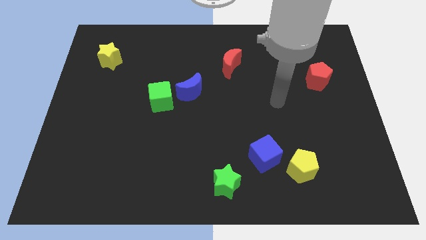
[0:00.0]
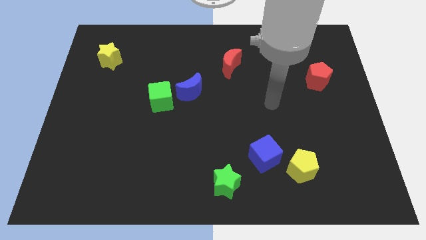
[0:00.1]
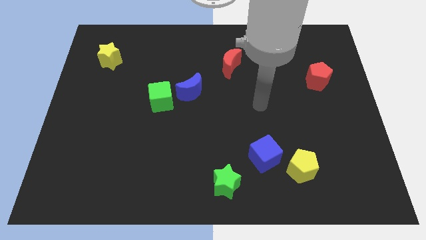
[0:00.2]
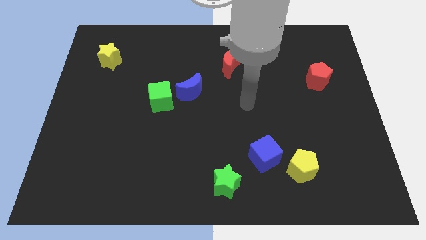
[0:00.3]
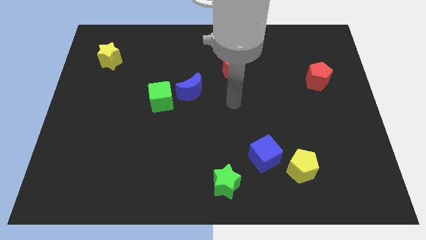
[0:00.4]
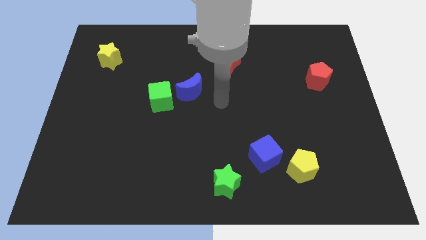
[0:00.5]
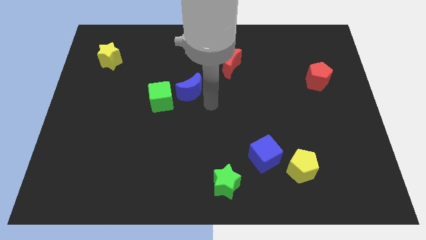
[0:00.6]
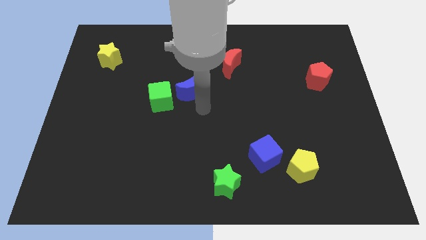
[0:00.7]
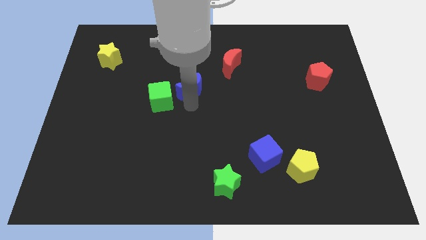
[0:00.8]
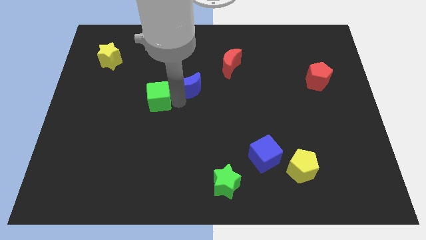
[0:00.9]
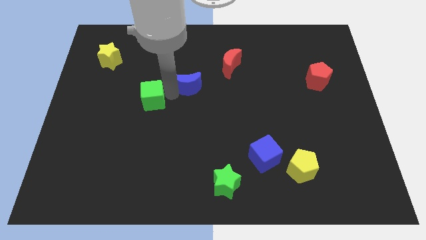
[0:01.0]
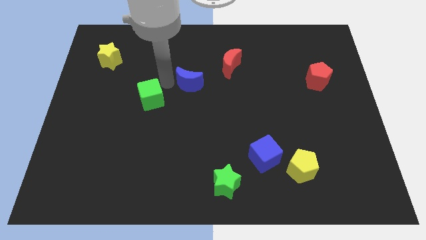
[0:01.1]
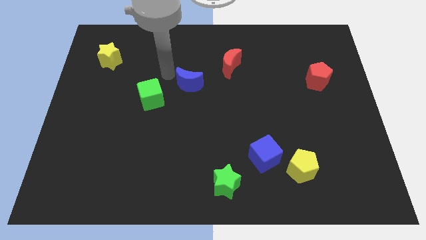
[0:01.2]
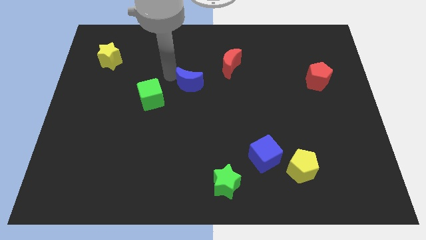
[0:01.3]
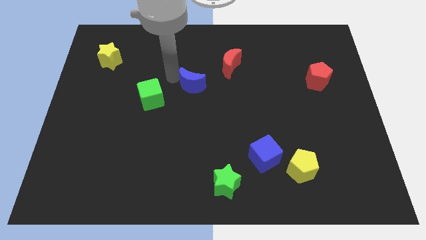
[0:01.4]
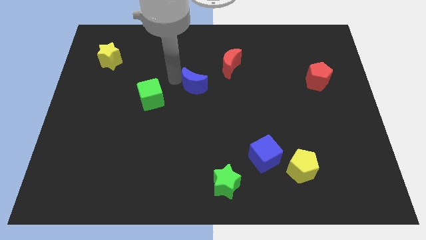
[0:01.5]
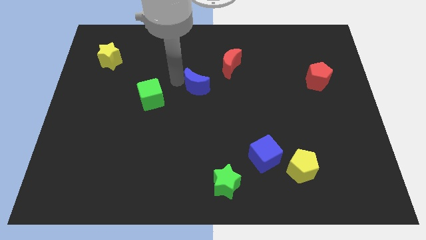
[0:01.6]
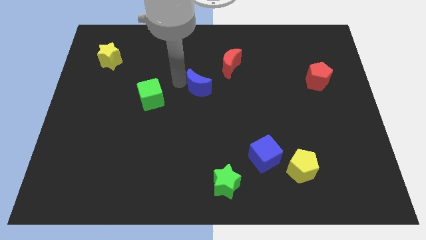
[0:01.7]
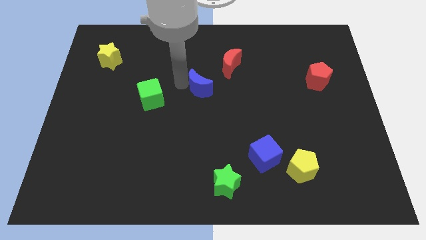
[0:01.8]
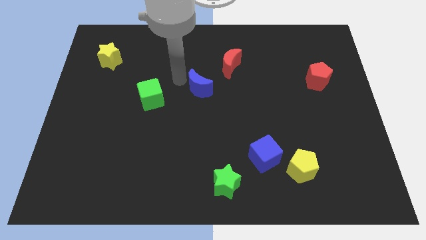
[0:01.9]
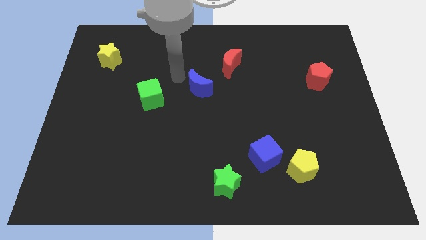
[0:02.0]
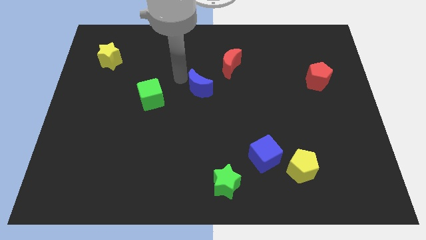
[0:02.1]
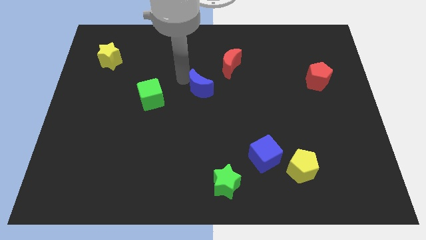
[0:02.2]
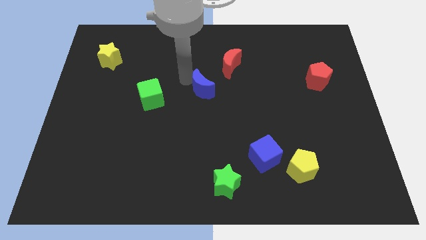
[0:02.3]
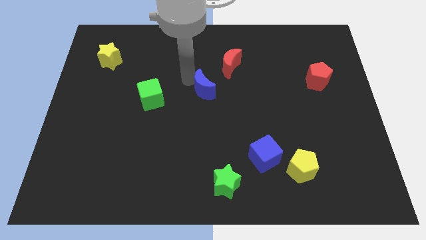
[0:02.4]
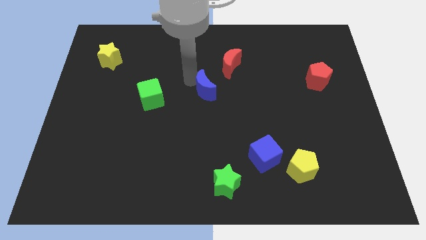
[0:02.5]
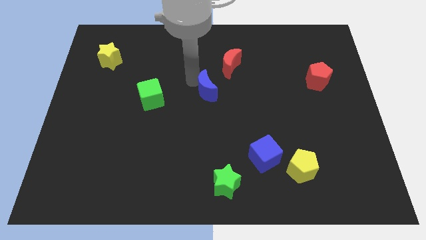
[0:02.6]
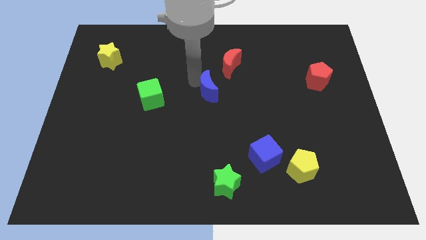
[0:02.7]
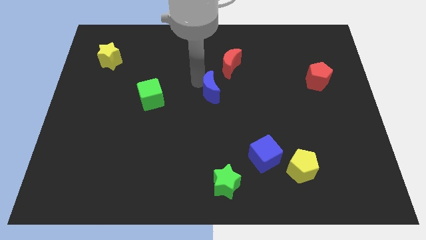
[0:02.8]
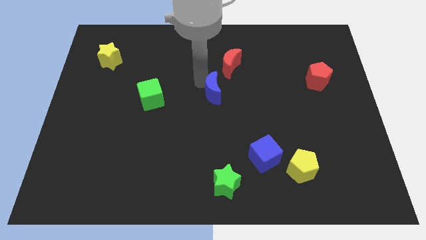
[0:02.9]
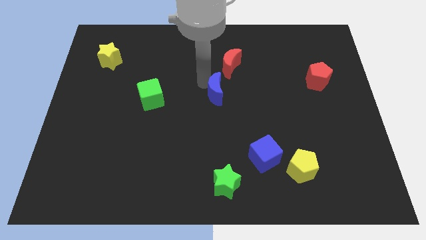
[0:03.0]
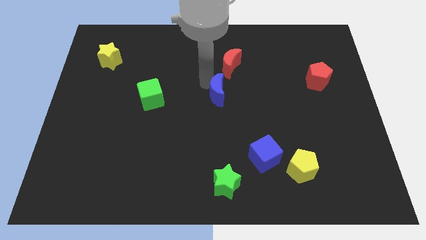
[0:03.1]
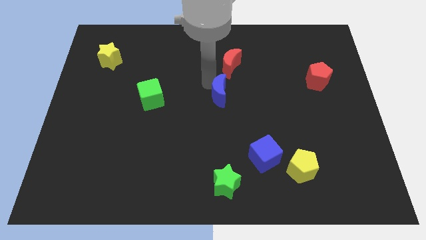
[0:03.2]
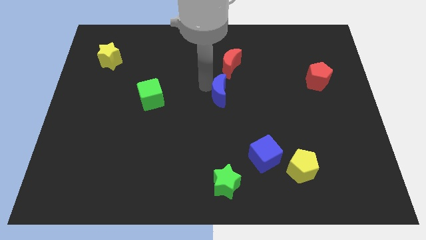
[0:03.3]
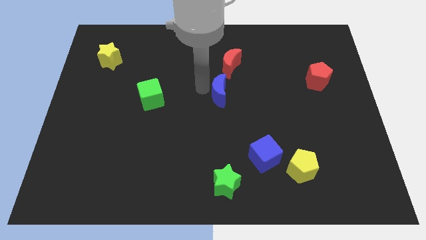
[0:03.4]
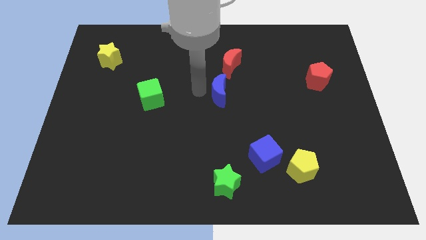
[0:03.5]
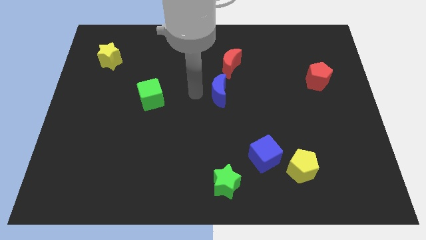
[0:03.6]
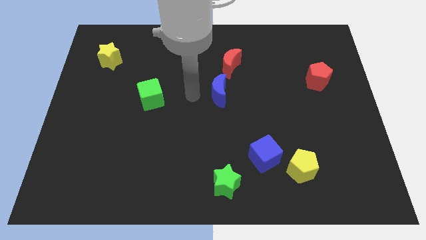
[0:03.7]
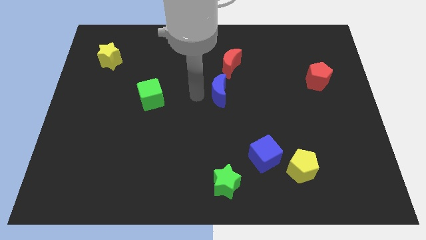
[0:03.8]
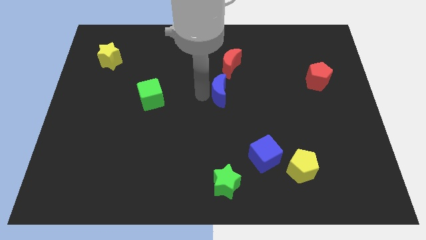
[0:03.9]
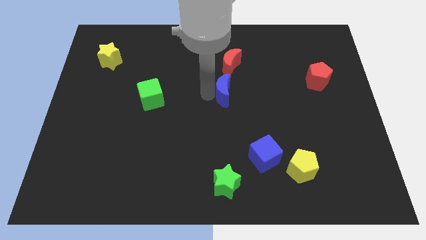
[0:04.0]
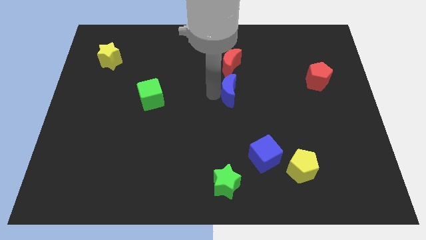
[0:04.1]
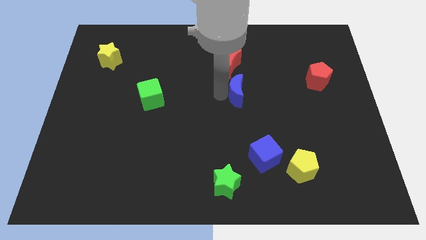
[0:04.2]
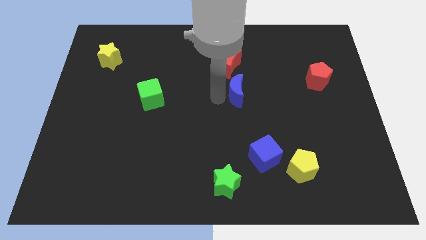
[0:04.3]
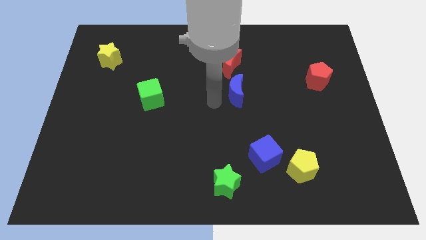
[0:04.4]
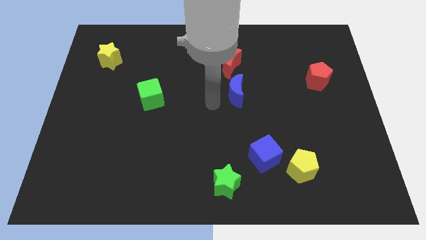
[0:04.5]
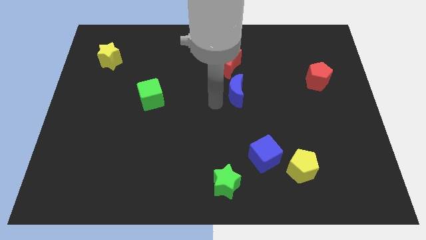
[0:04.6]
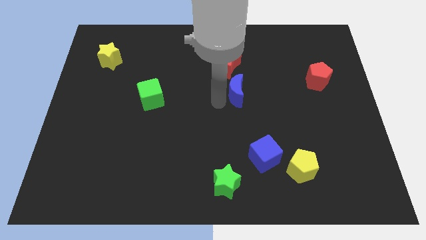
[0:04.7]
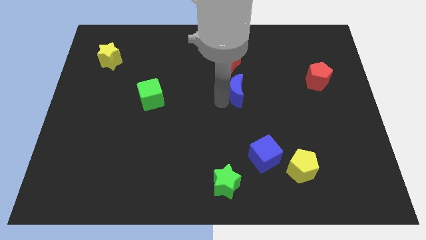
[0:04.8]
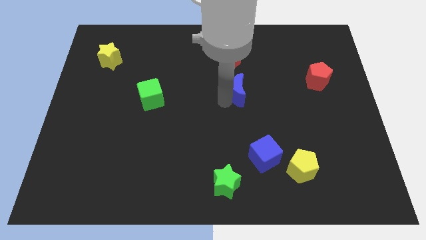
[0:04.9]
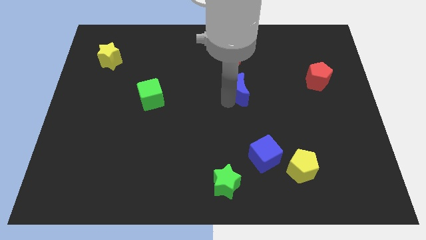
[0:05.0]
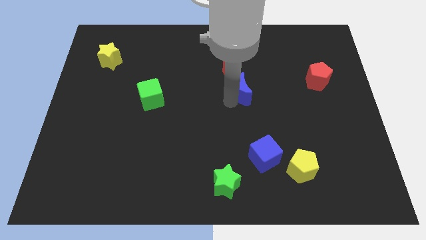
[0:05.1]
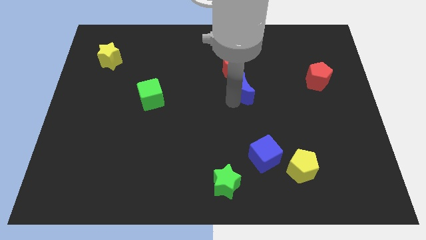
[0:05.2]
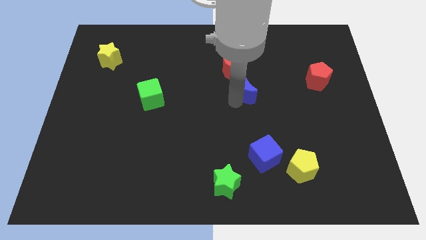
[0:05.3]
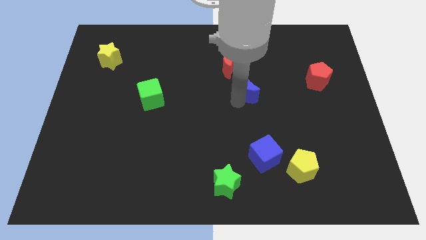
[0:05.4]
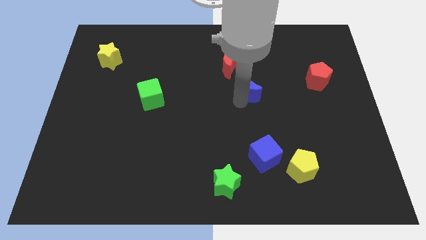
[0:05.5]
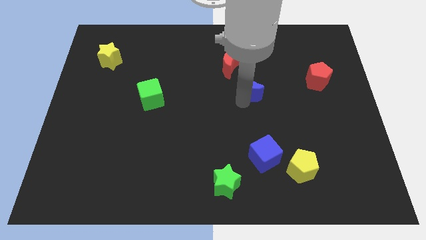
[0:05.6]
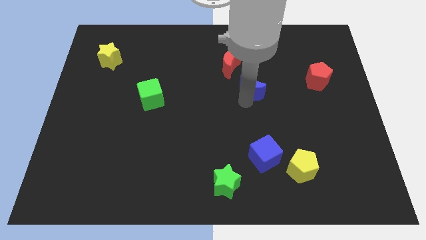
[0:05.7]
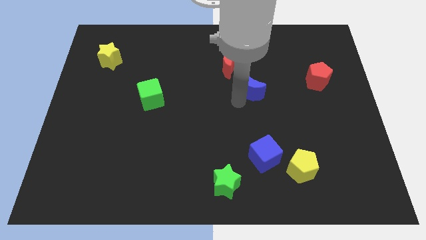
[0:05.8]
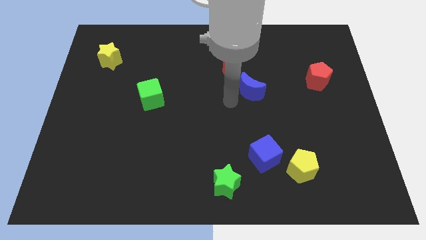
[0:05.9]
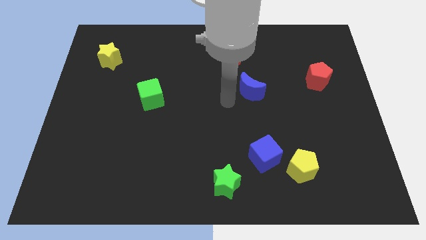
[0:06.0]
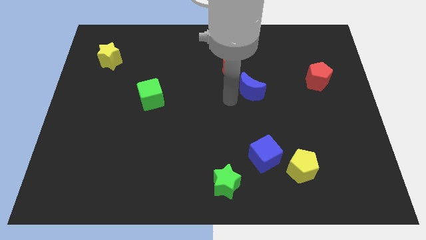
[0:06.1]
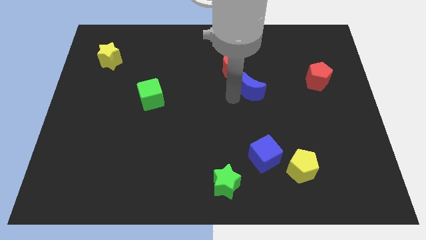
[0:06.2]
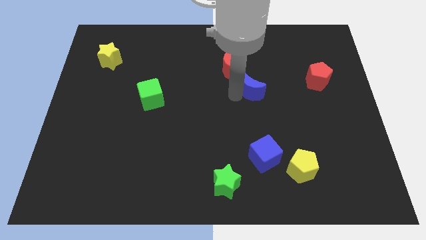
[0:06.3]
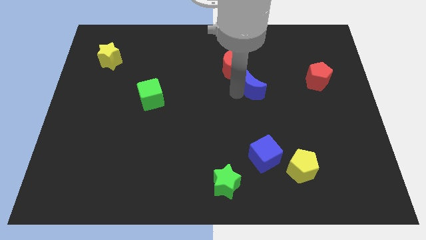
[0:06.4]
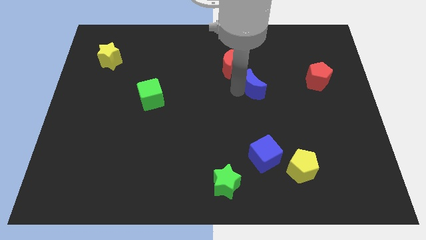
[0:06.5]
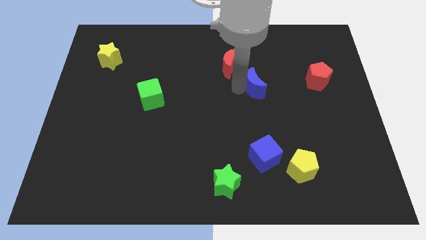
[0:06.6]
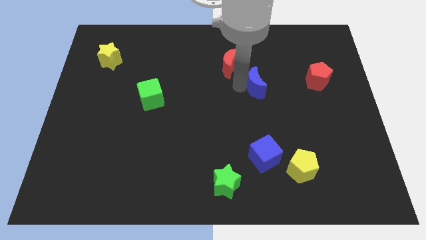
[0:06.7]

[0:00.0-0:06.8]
put the blue moon left of the red pentagon
